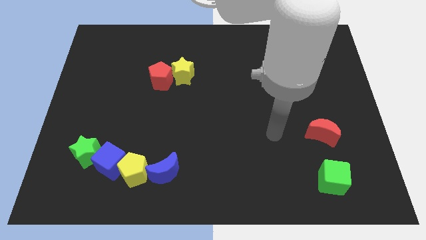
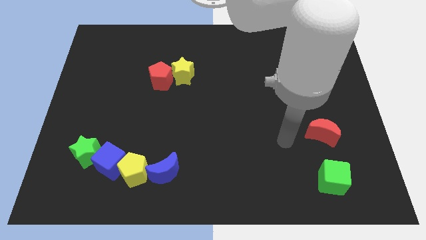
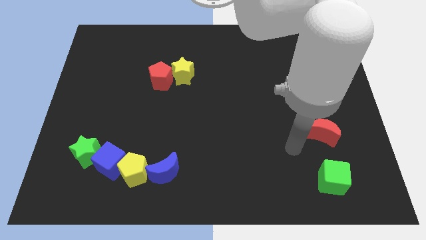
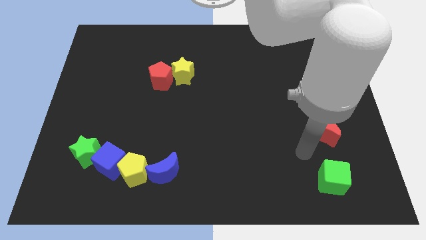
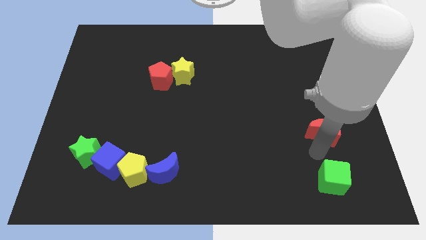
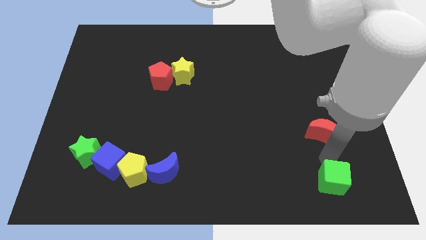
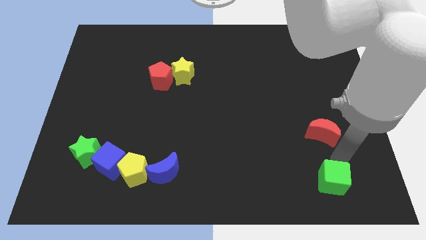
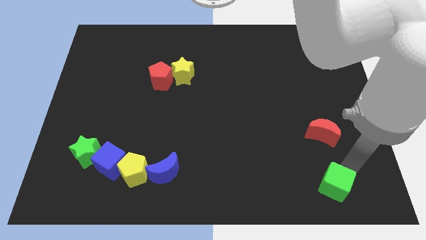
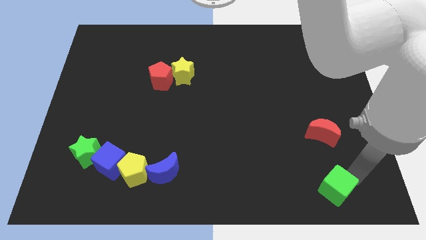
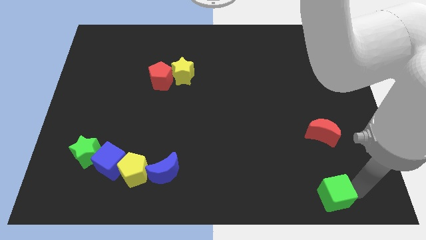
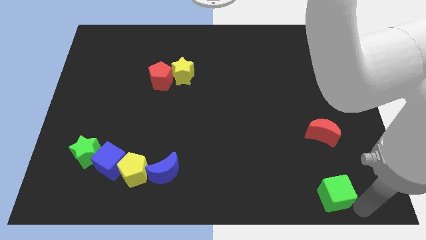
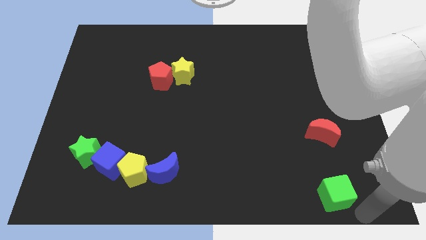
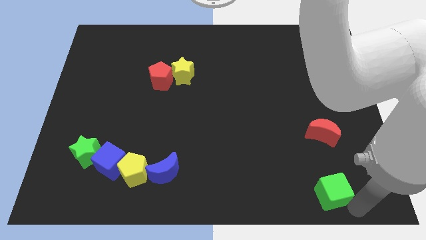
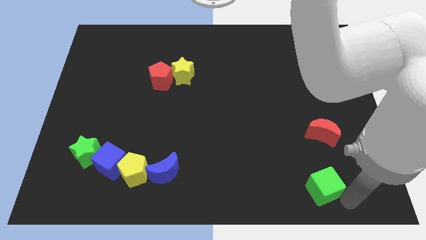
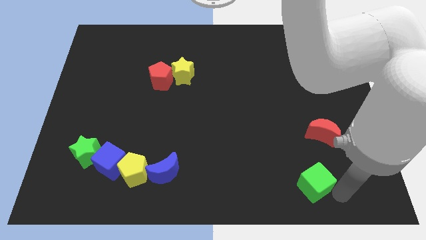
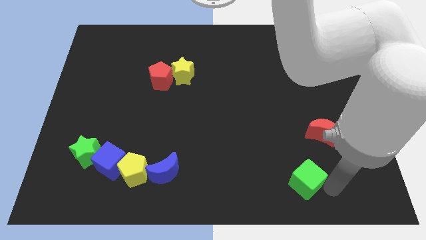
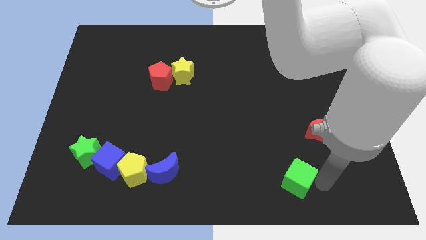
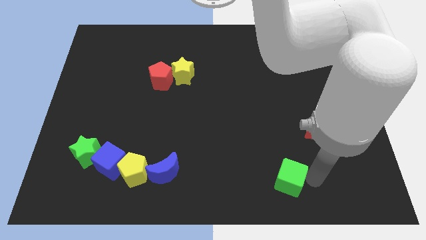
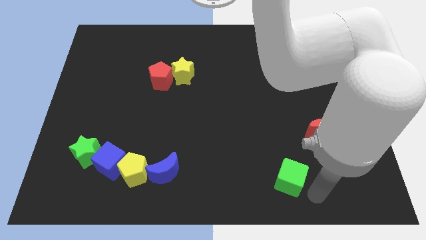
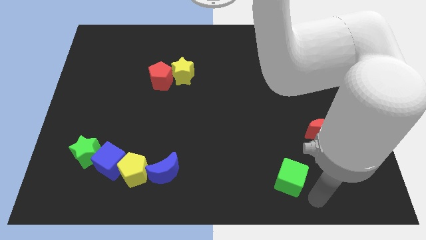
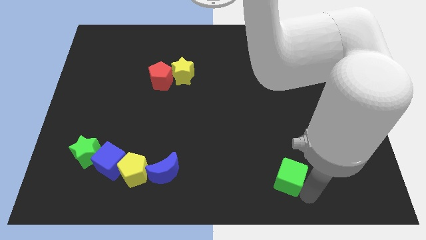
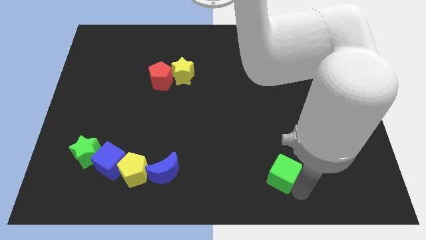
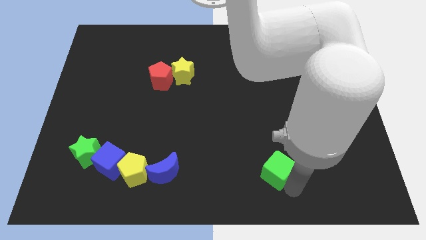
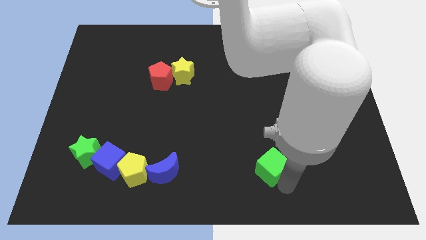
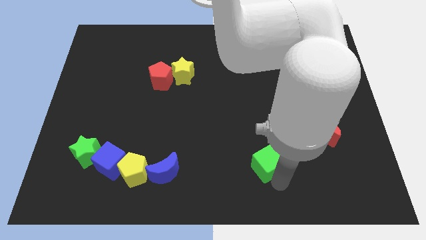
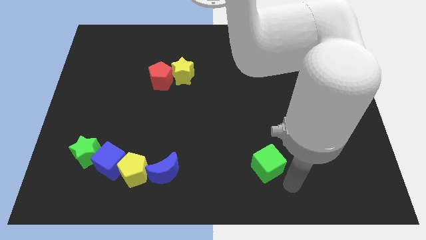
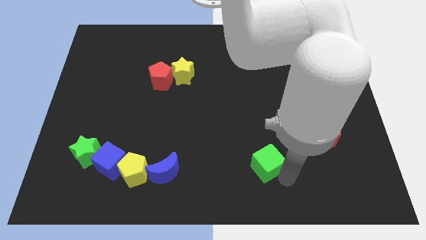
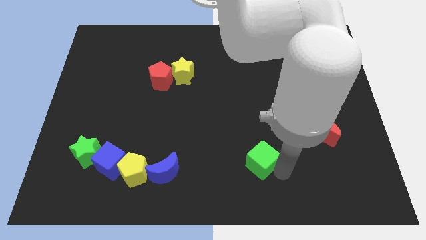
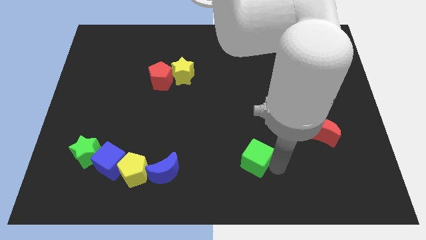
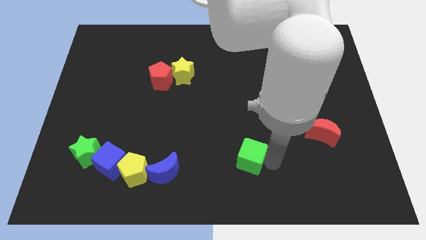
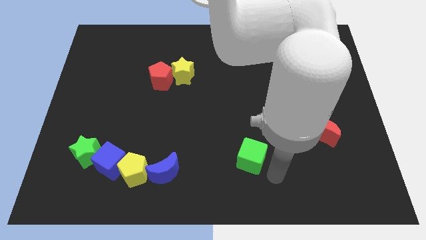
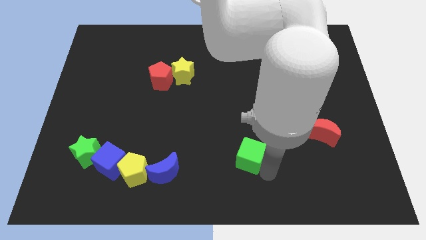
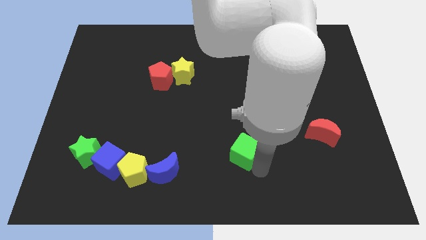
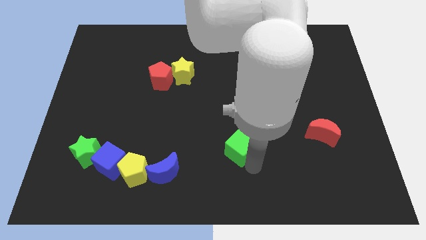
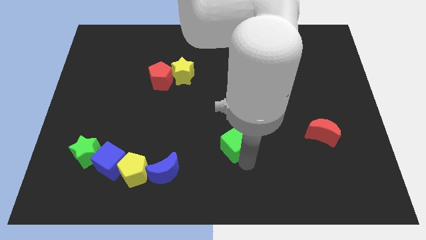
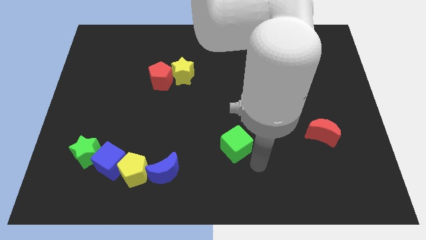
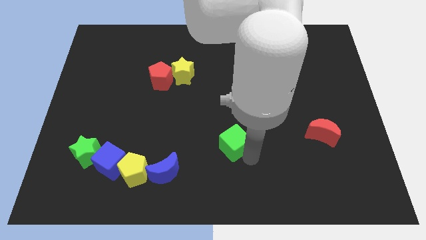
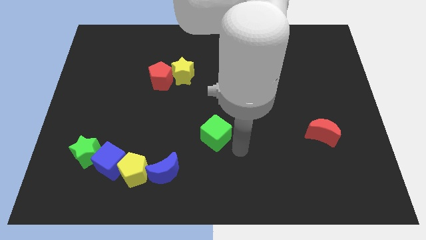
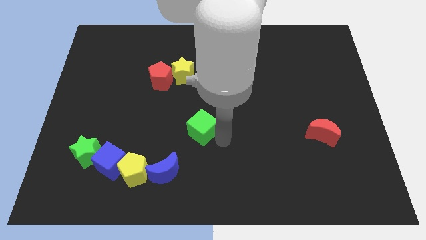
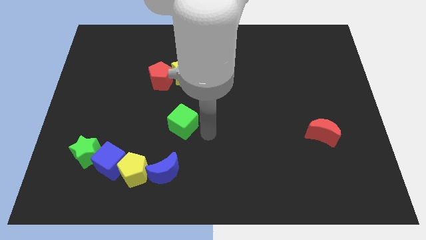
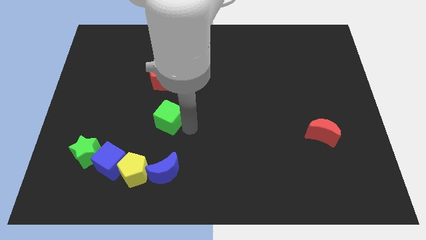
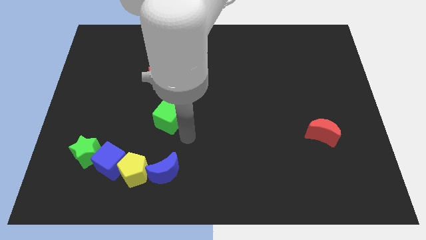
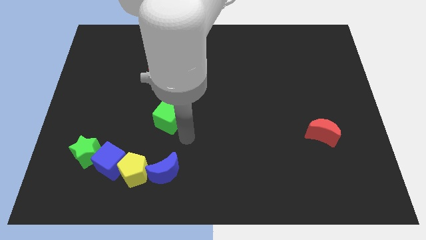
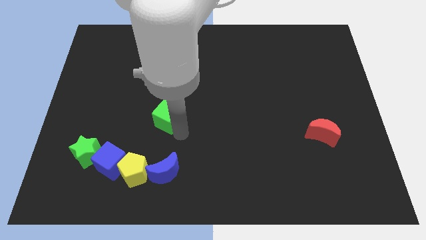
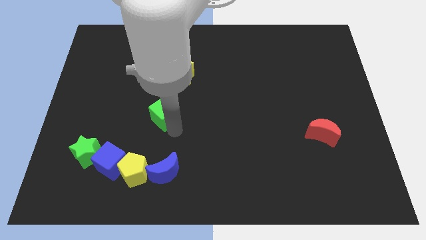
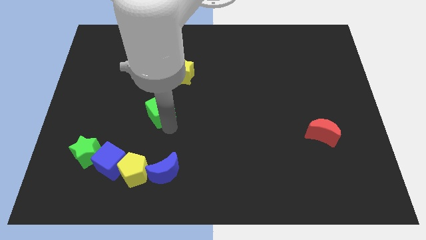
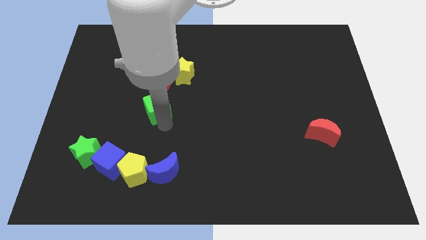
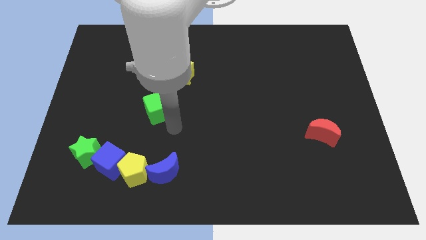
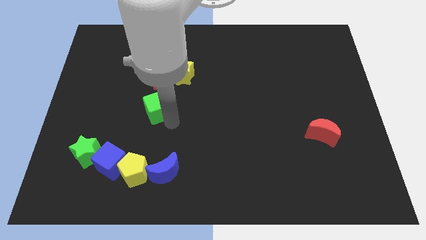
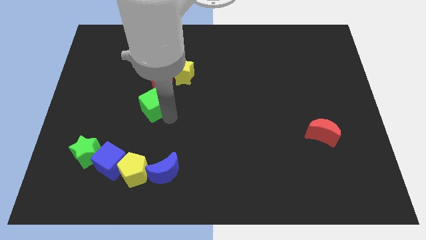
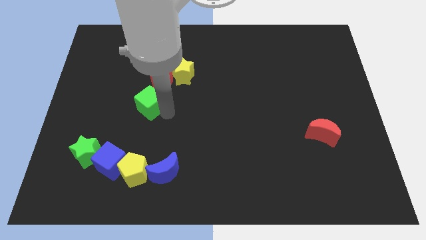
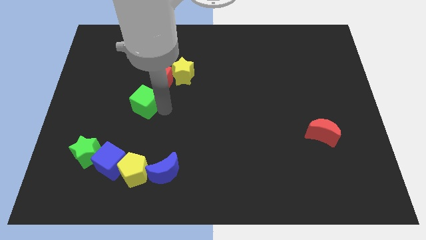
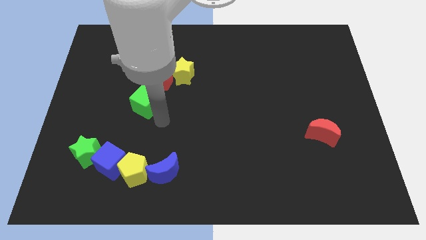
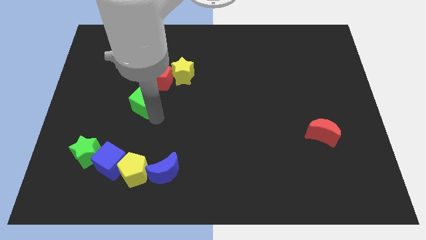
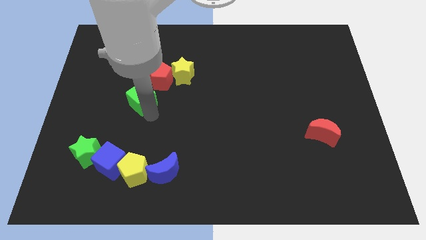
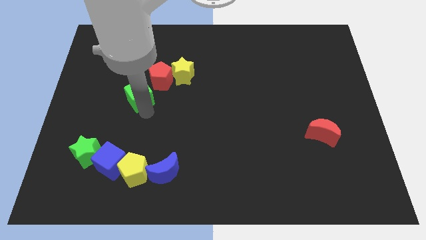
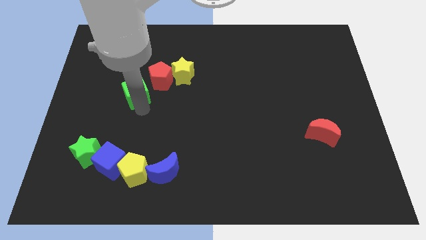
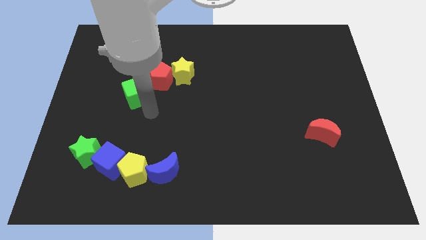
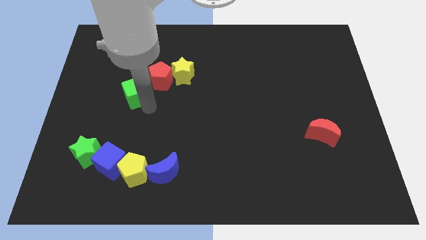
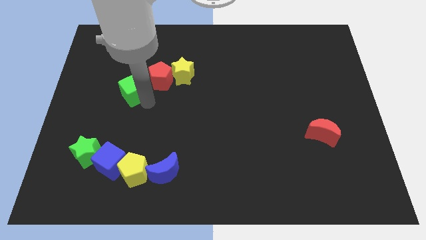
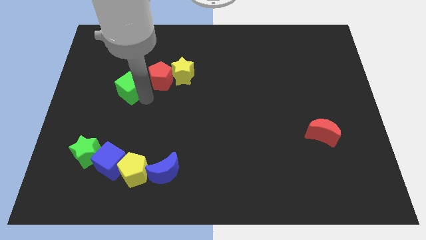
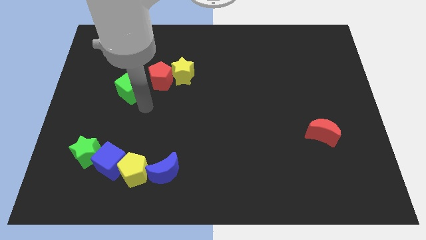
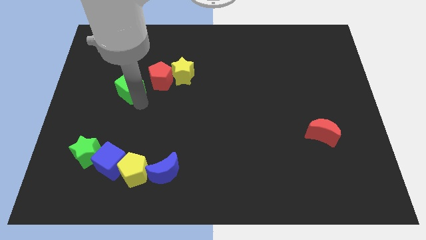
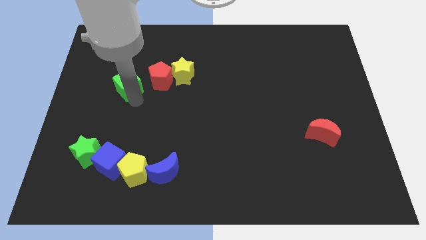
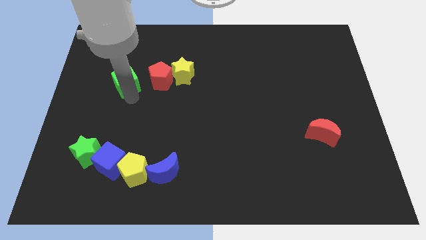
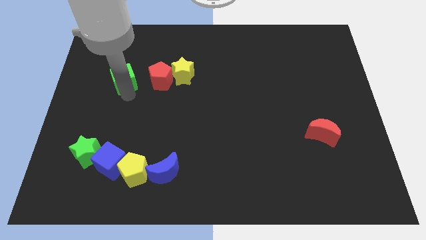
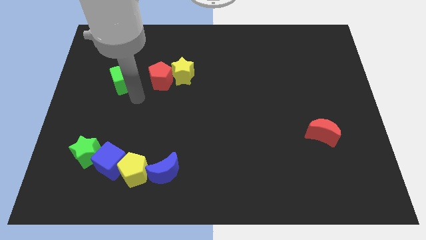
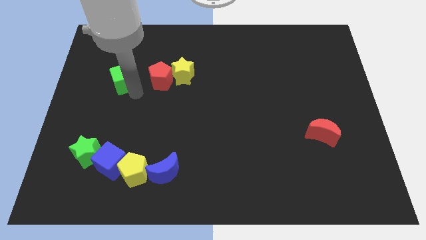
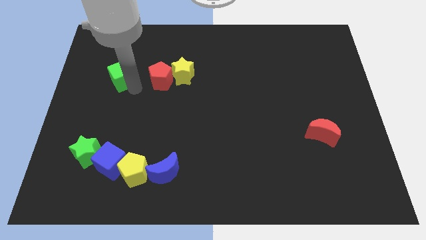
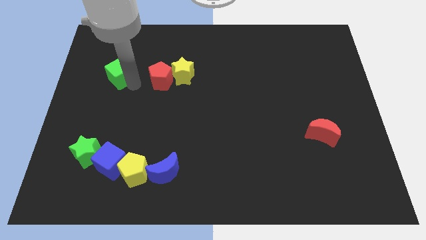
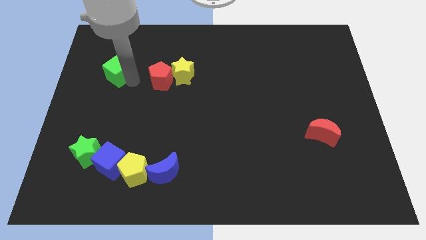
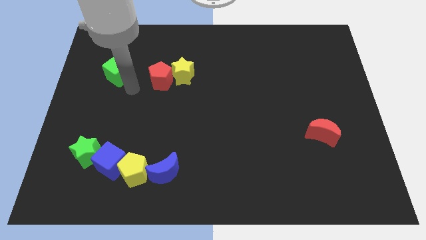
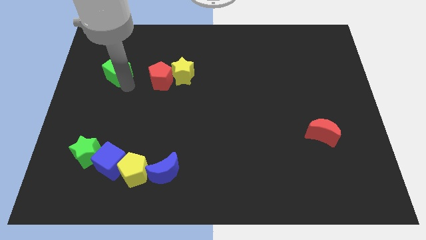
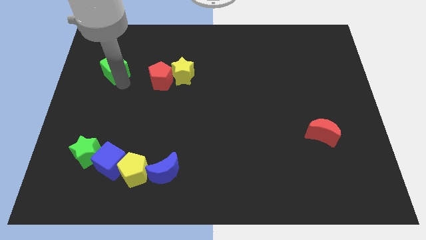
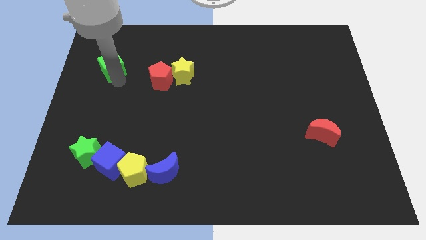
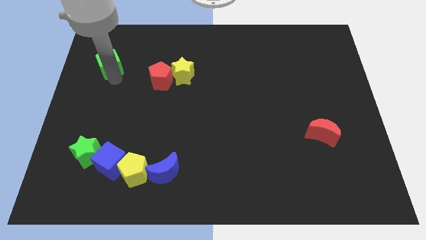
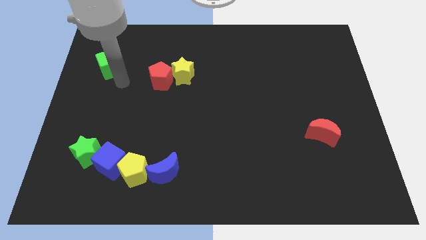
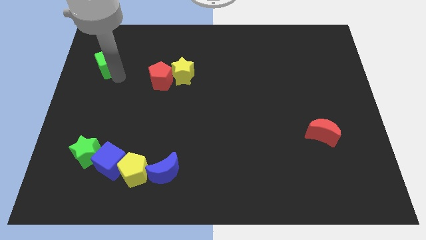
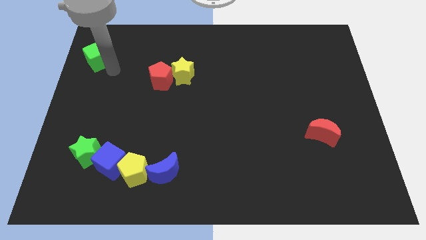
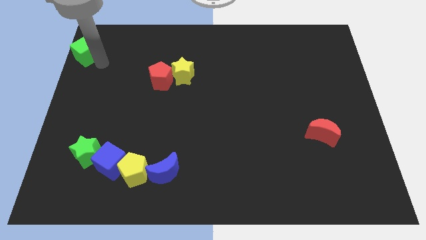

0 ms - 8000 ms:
push the green cube to the upper left corner
